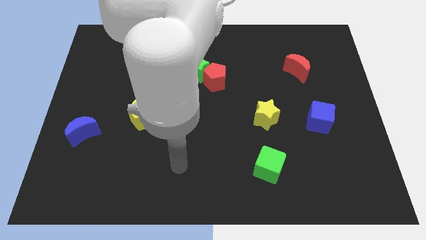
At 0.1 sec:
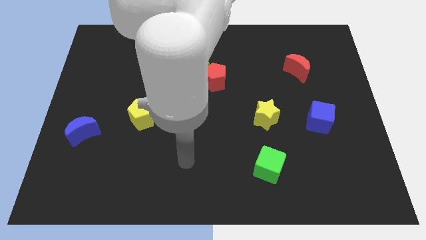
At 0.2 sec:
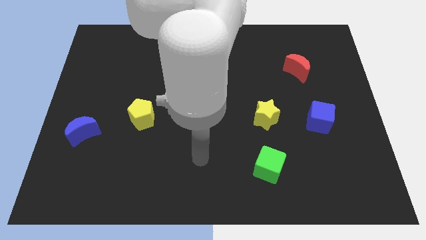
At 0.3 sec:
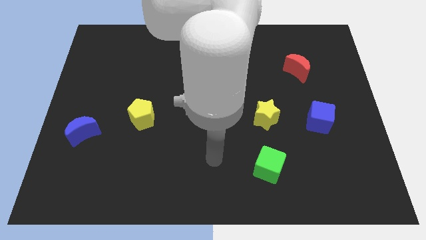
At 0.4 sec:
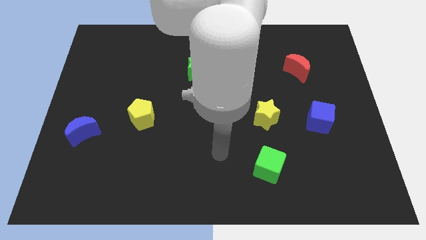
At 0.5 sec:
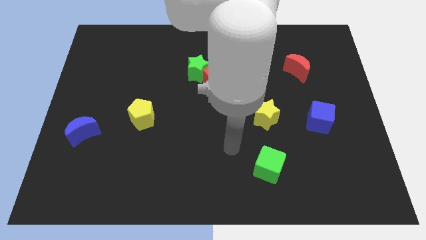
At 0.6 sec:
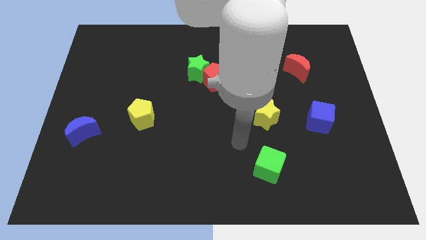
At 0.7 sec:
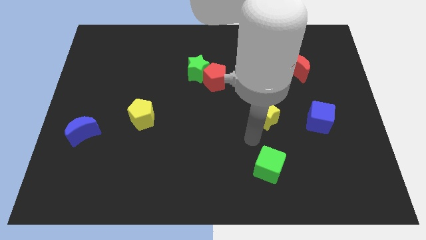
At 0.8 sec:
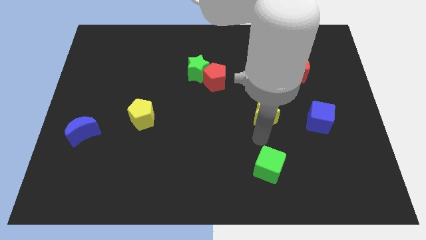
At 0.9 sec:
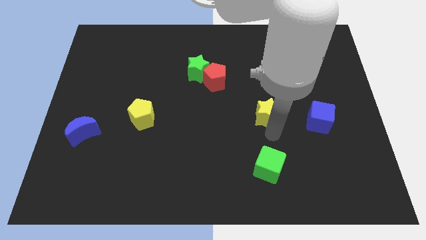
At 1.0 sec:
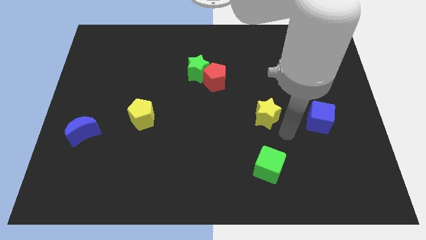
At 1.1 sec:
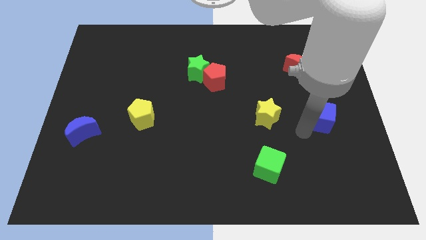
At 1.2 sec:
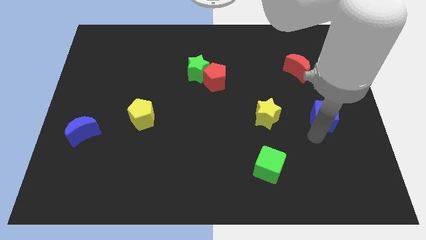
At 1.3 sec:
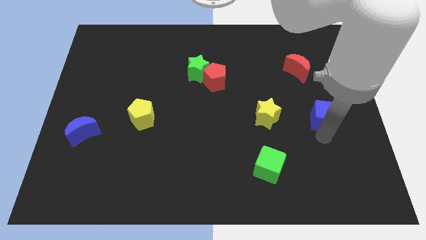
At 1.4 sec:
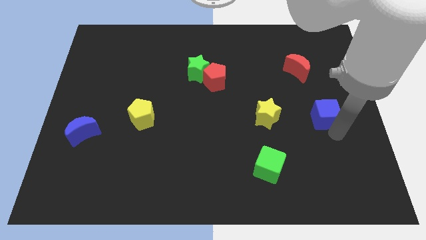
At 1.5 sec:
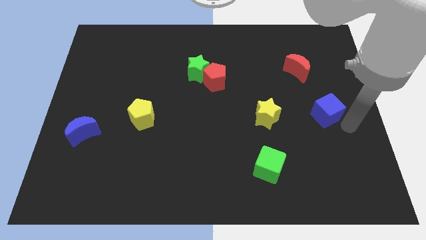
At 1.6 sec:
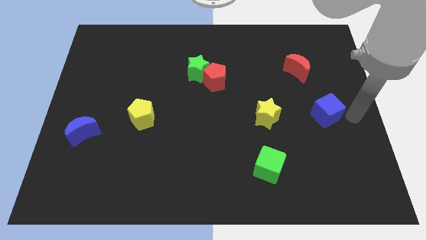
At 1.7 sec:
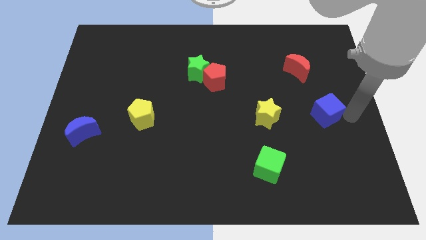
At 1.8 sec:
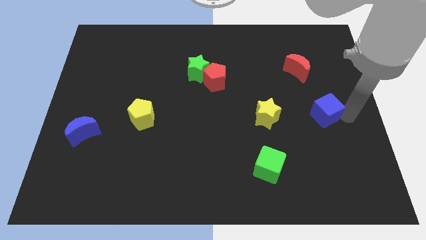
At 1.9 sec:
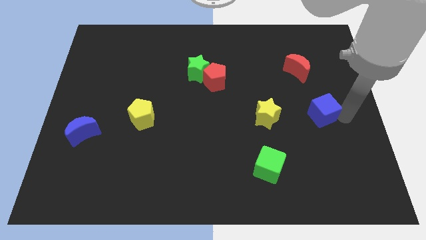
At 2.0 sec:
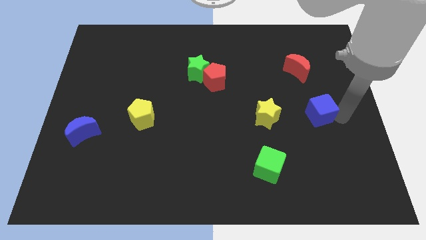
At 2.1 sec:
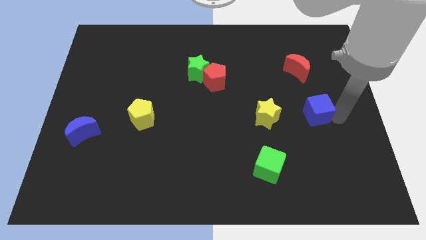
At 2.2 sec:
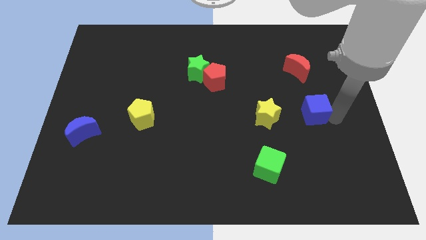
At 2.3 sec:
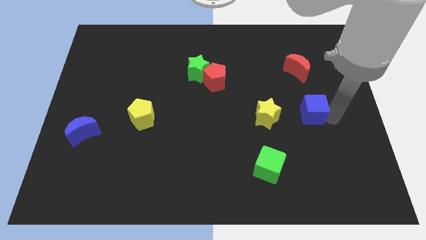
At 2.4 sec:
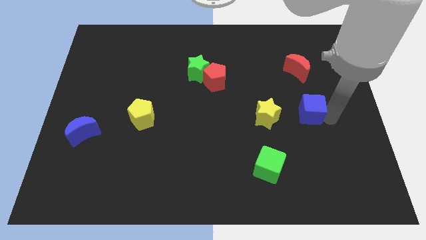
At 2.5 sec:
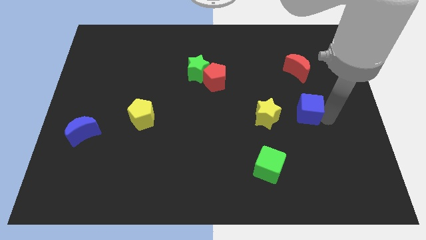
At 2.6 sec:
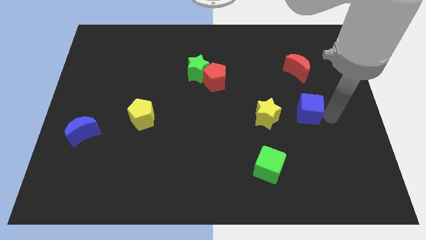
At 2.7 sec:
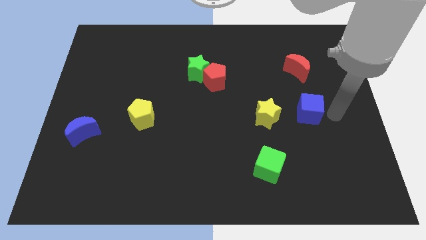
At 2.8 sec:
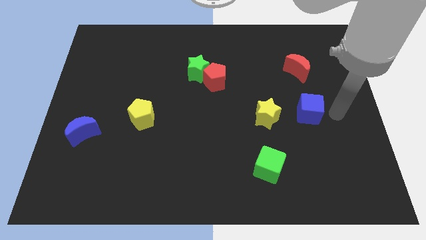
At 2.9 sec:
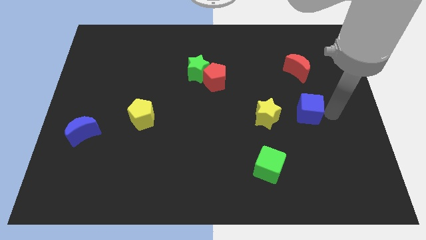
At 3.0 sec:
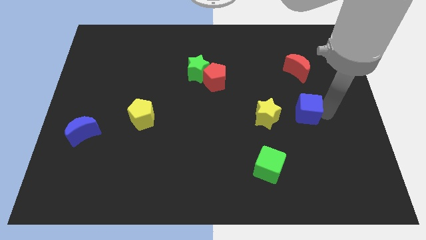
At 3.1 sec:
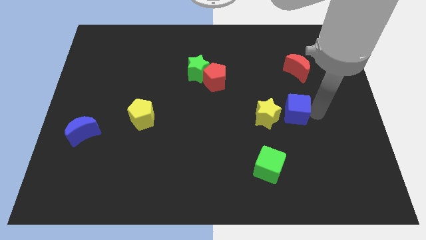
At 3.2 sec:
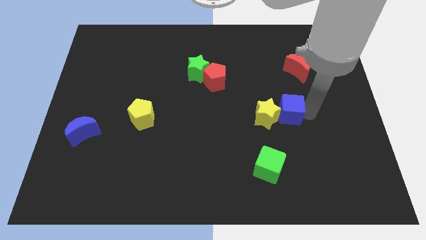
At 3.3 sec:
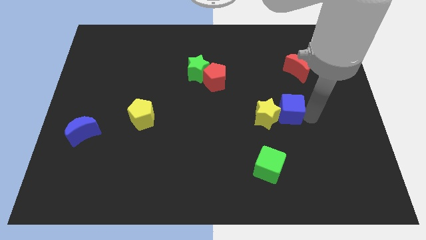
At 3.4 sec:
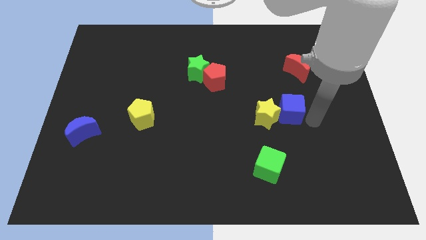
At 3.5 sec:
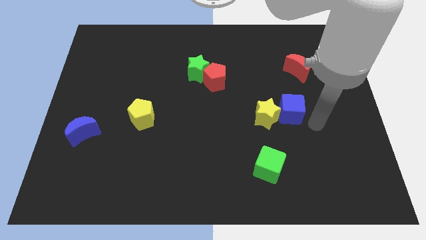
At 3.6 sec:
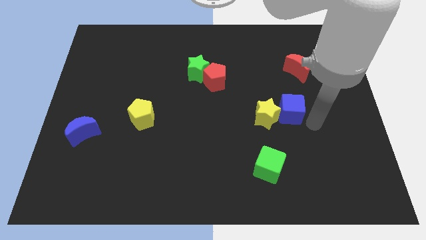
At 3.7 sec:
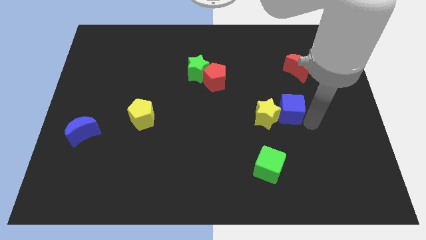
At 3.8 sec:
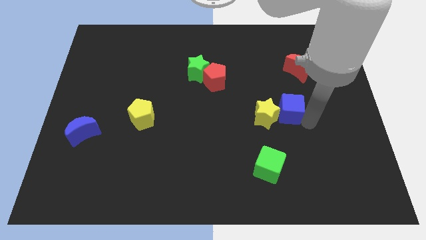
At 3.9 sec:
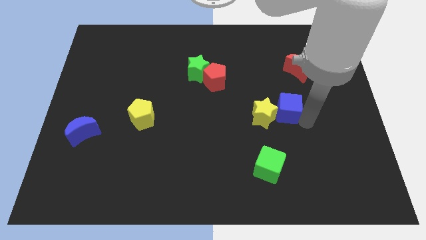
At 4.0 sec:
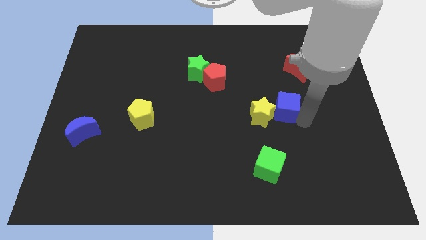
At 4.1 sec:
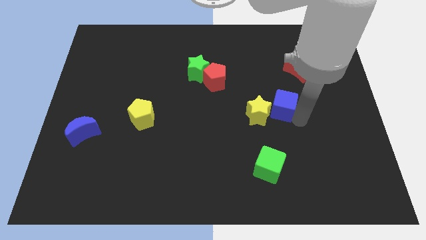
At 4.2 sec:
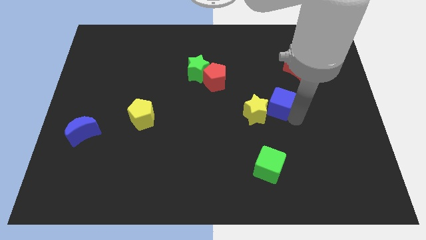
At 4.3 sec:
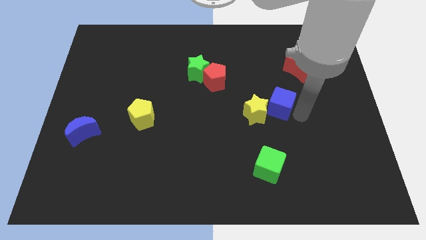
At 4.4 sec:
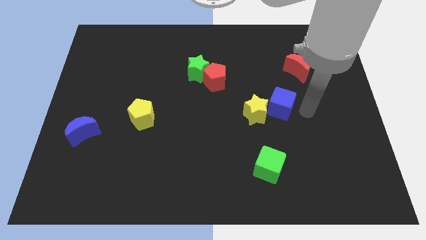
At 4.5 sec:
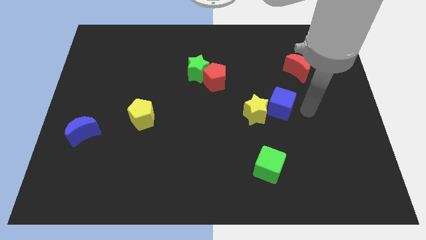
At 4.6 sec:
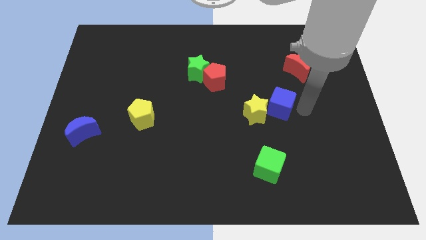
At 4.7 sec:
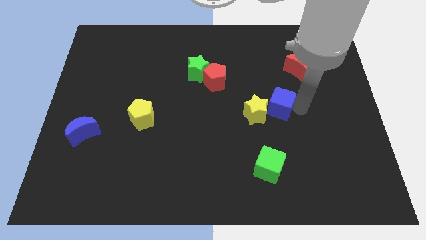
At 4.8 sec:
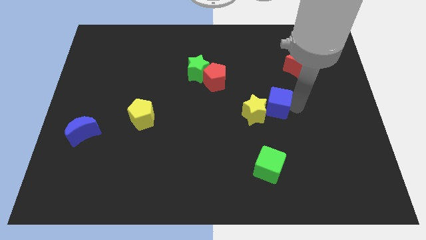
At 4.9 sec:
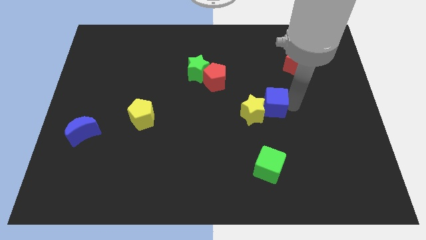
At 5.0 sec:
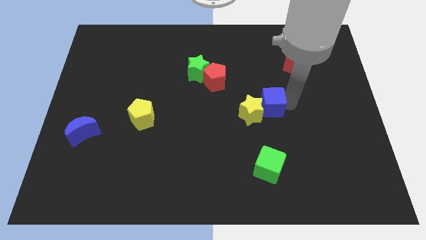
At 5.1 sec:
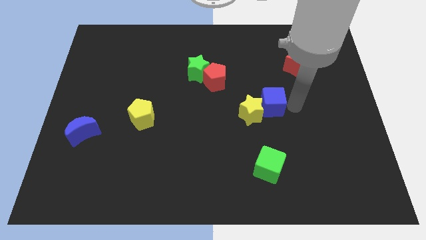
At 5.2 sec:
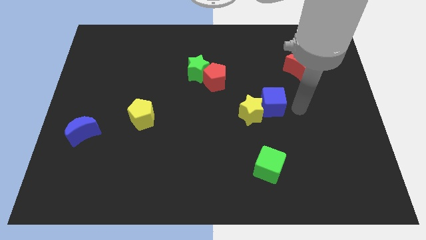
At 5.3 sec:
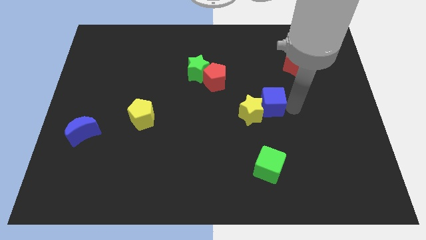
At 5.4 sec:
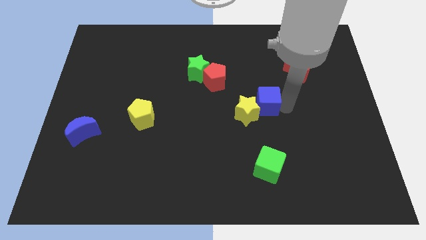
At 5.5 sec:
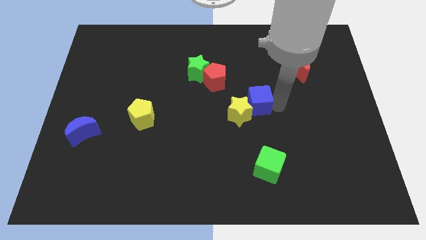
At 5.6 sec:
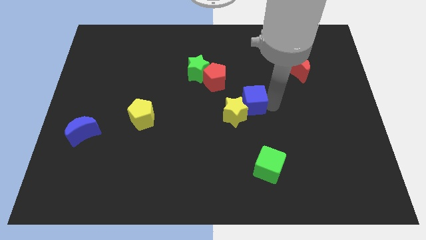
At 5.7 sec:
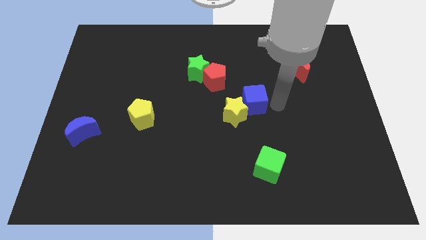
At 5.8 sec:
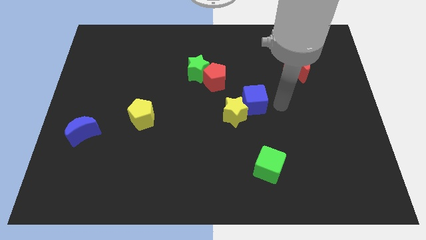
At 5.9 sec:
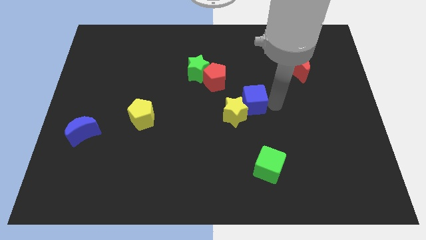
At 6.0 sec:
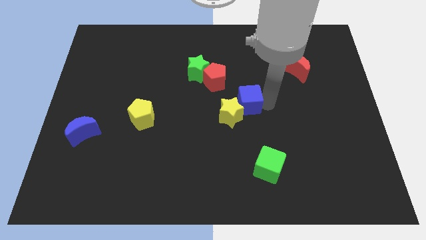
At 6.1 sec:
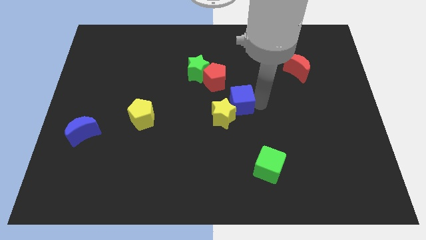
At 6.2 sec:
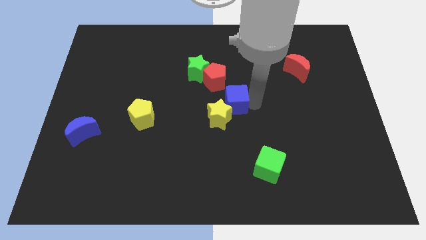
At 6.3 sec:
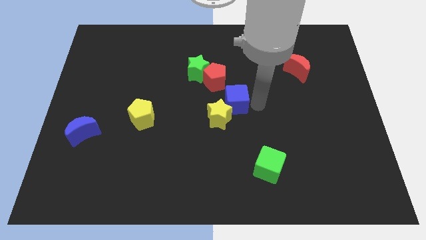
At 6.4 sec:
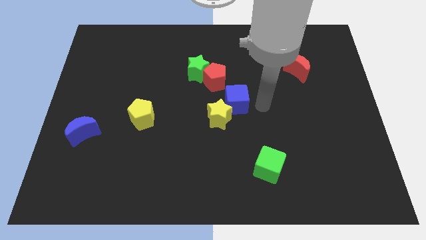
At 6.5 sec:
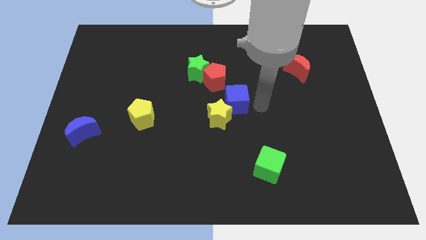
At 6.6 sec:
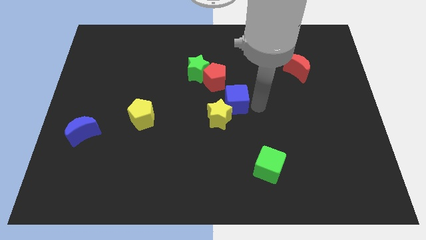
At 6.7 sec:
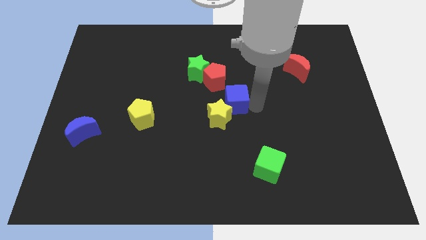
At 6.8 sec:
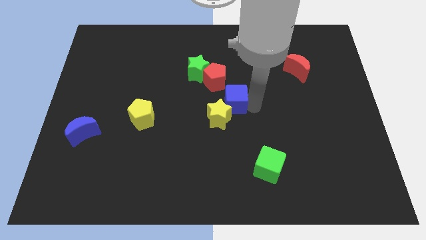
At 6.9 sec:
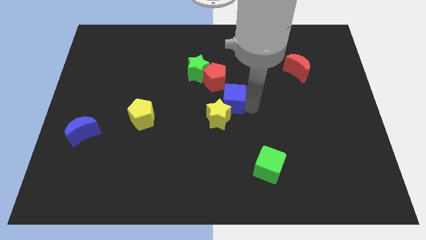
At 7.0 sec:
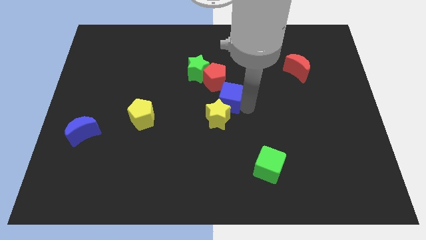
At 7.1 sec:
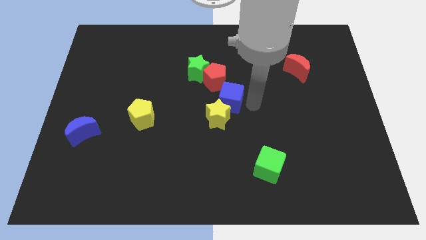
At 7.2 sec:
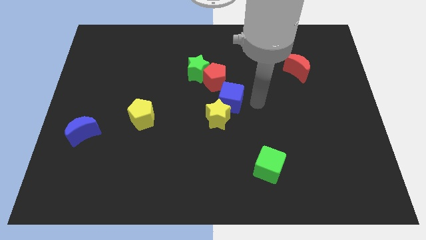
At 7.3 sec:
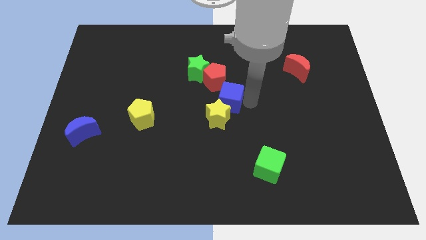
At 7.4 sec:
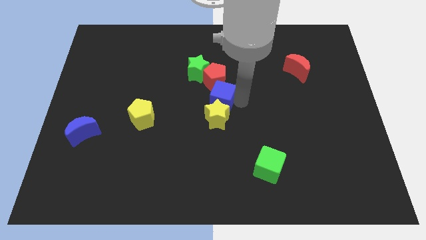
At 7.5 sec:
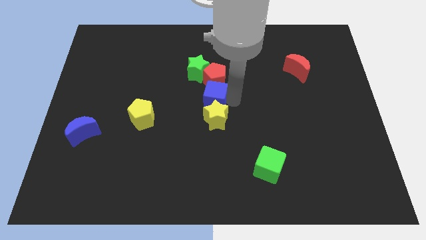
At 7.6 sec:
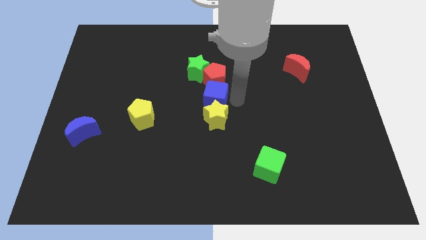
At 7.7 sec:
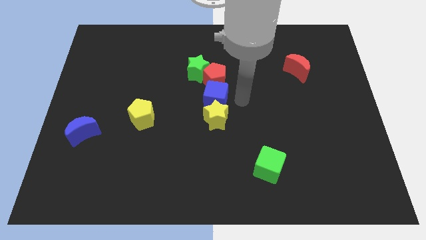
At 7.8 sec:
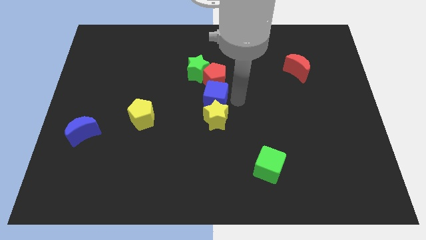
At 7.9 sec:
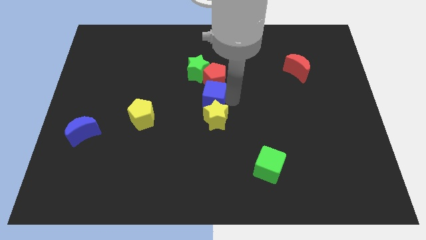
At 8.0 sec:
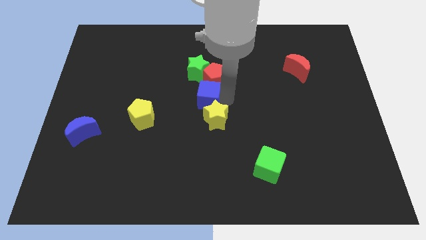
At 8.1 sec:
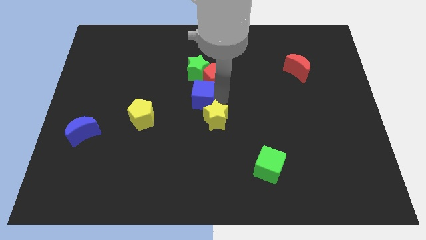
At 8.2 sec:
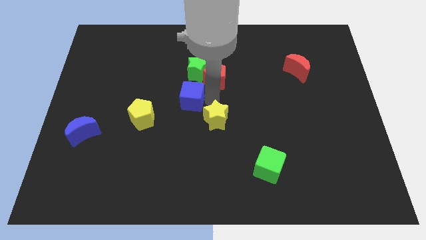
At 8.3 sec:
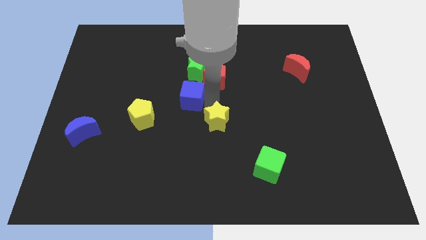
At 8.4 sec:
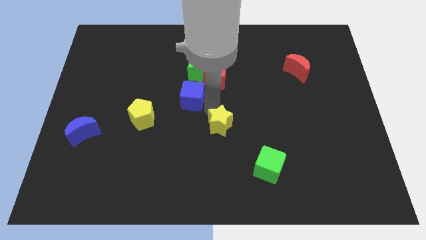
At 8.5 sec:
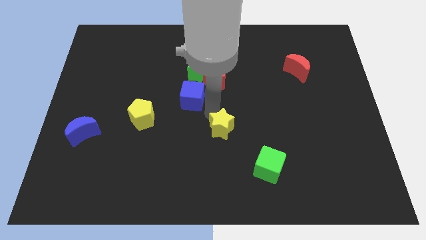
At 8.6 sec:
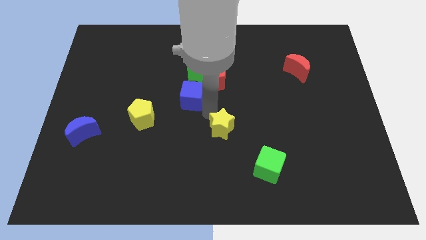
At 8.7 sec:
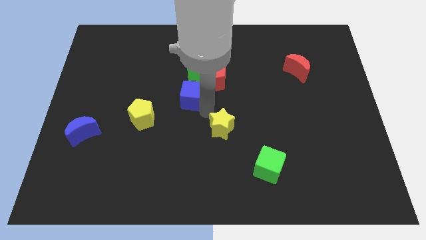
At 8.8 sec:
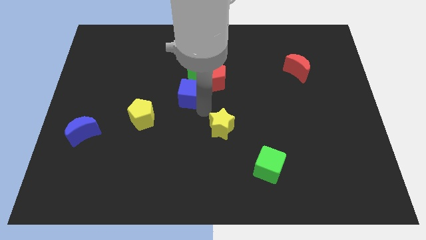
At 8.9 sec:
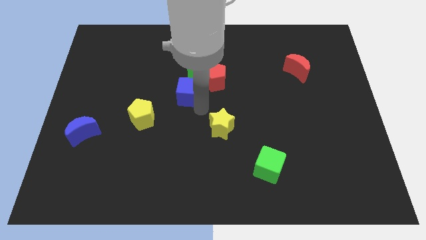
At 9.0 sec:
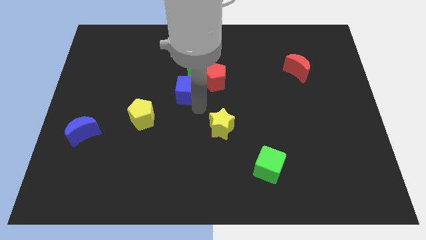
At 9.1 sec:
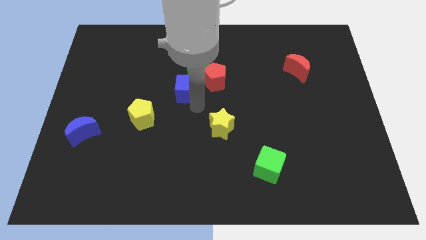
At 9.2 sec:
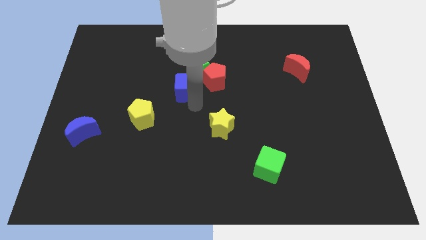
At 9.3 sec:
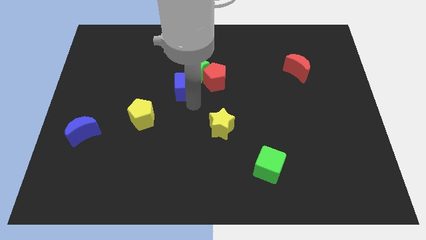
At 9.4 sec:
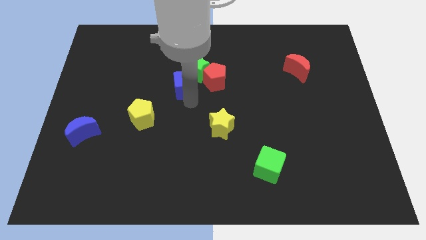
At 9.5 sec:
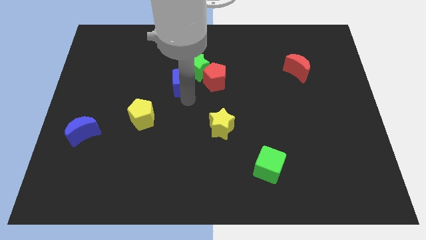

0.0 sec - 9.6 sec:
put the blue cube left of the green star
